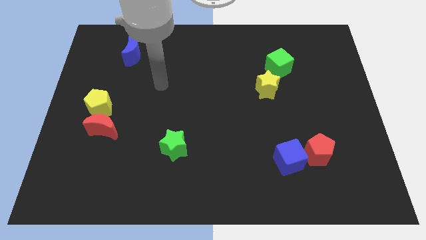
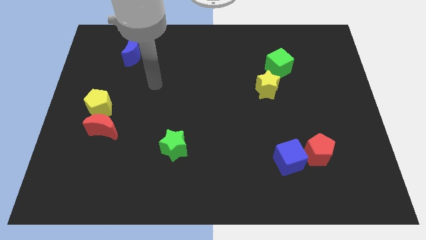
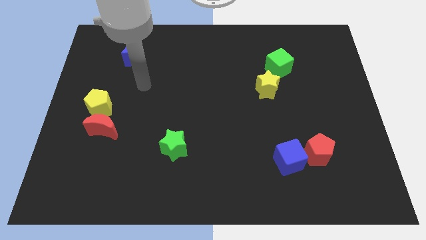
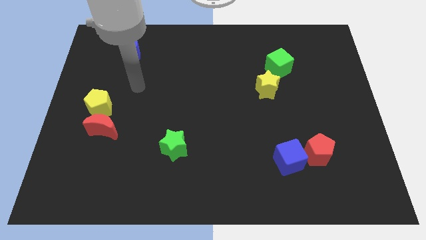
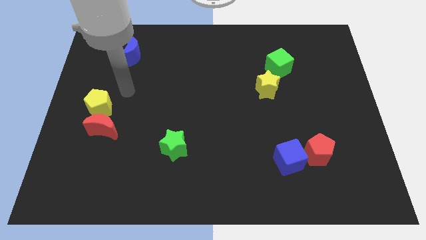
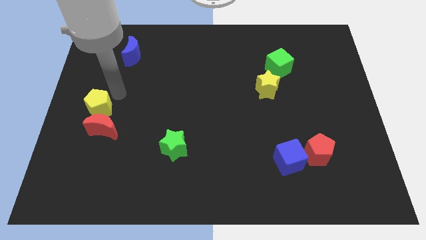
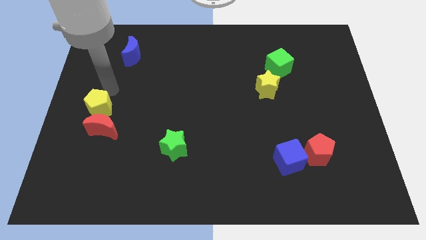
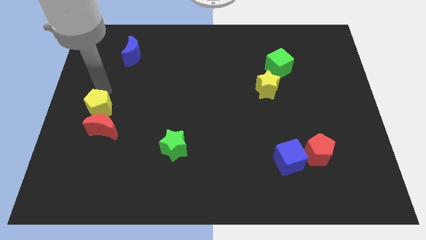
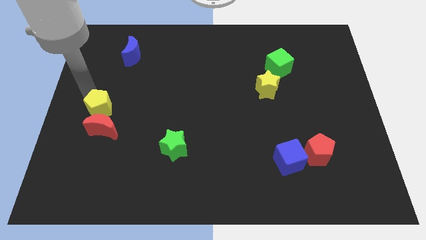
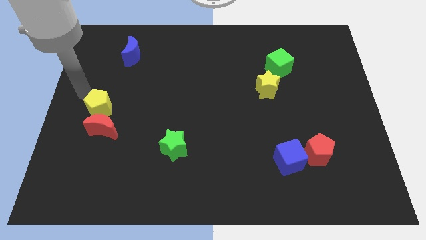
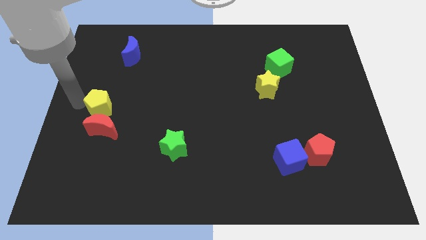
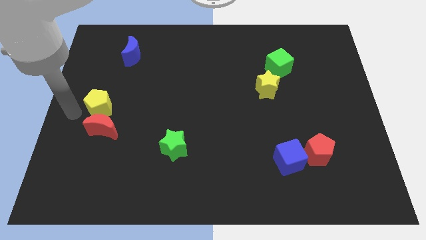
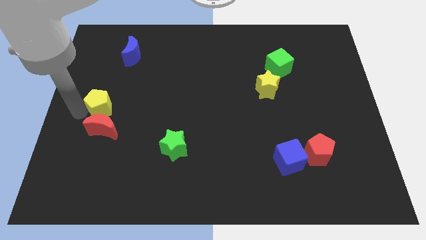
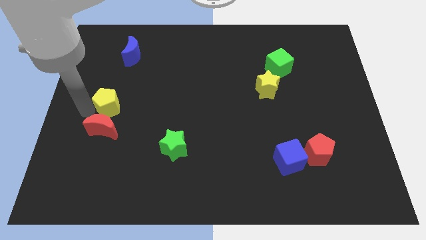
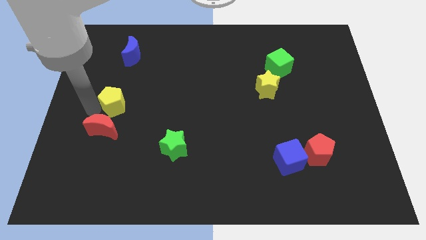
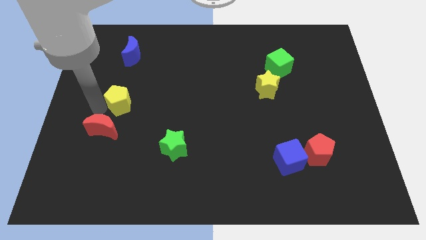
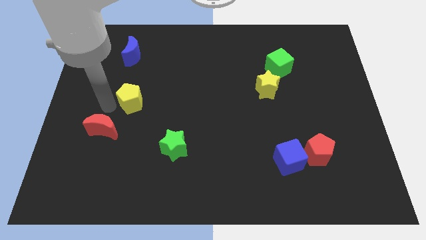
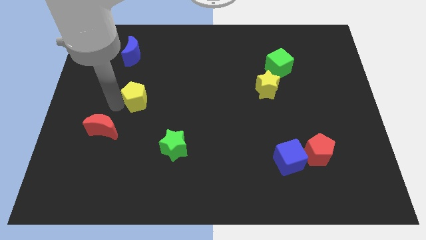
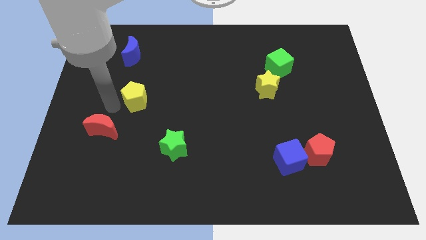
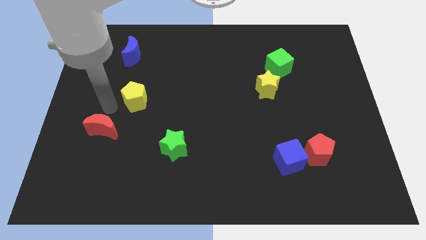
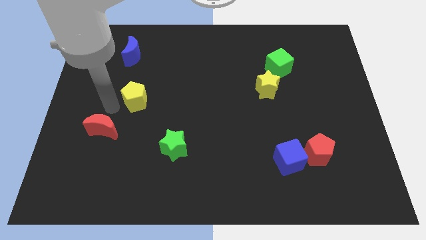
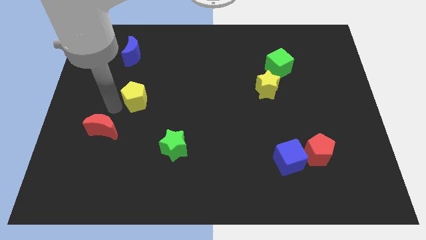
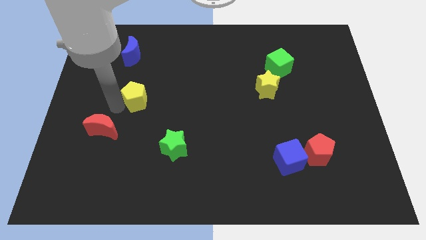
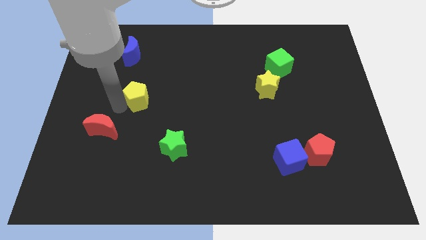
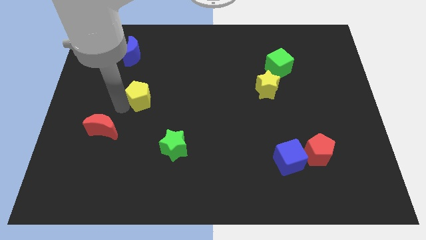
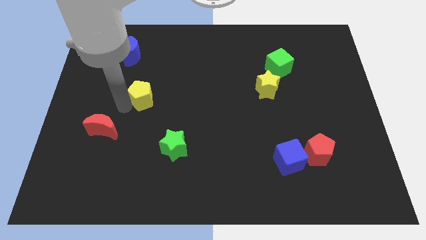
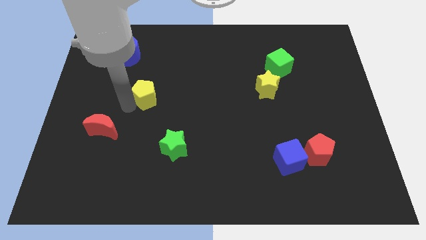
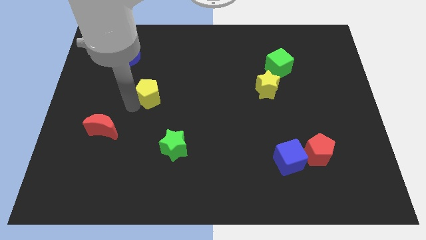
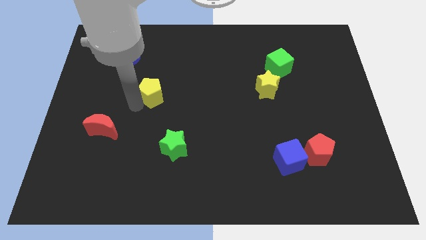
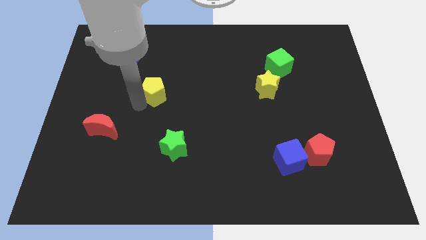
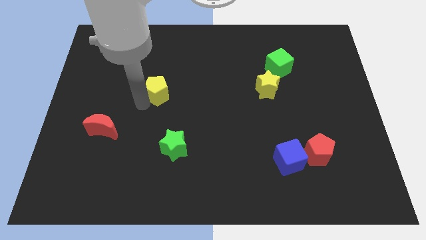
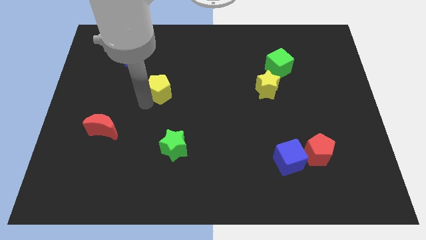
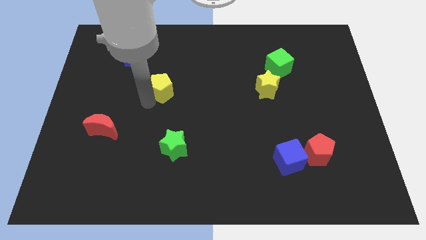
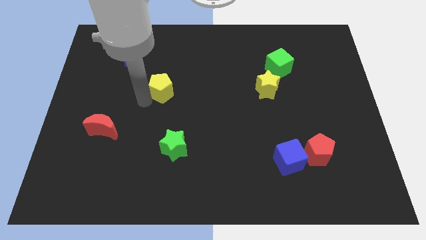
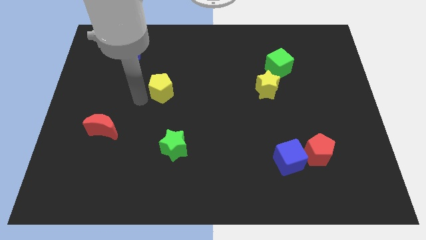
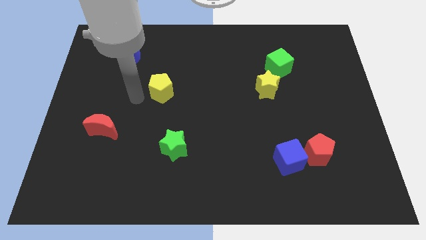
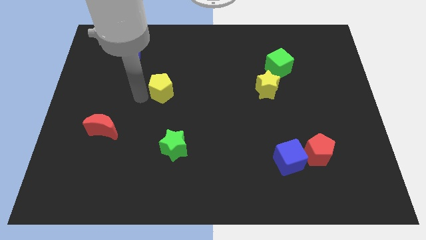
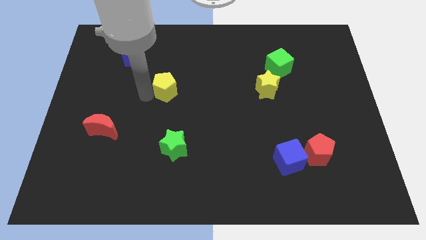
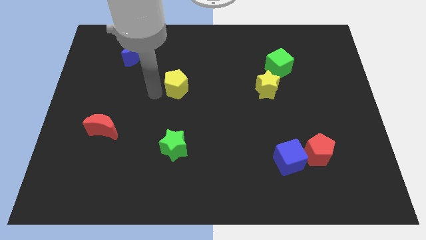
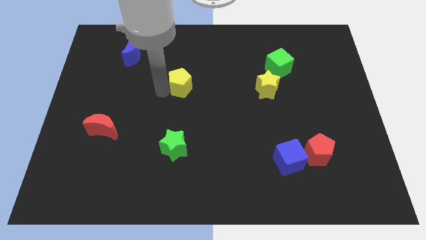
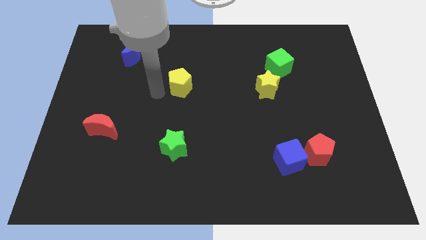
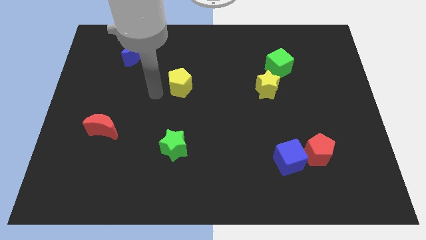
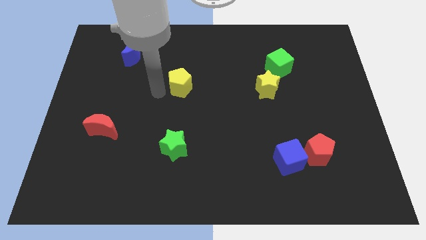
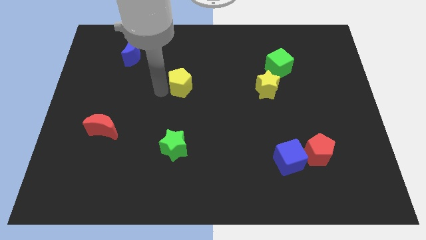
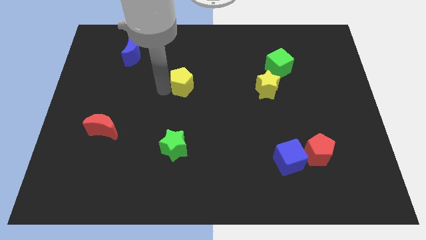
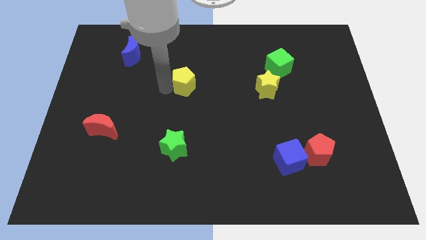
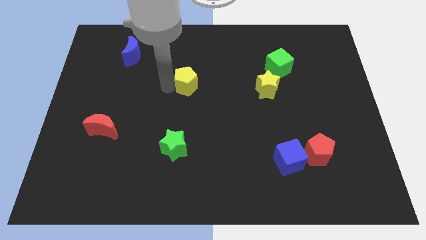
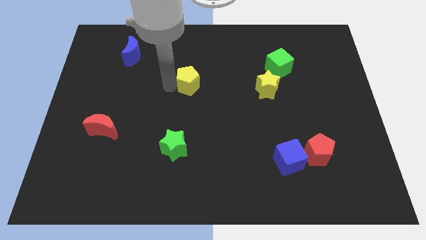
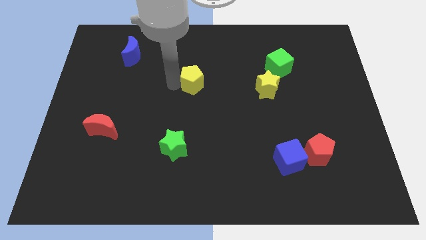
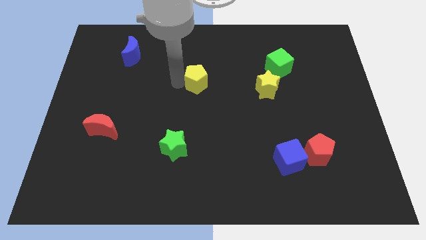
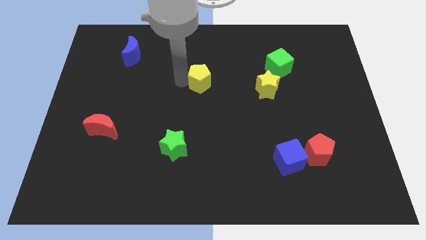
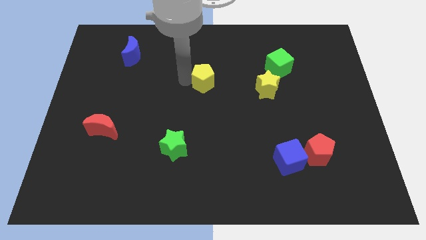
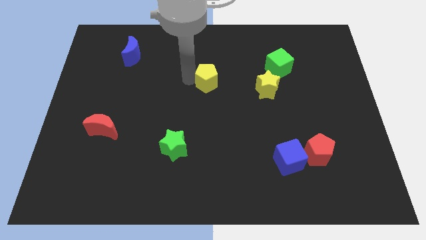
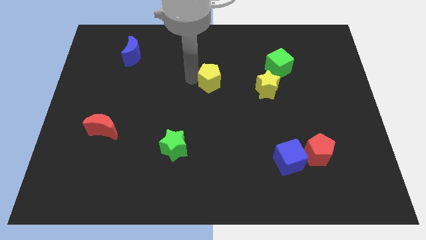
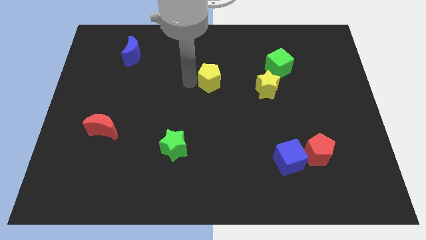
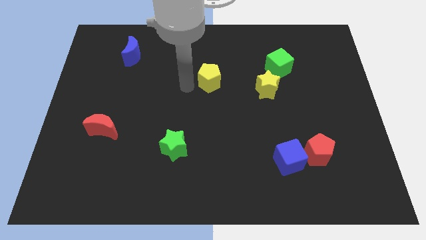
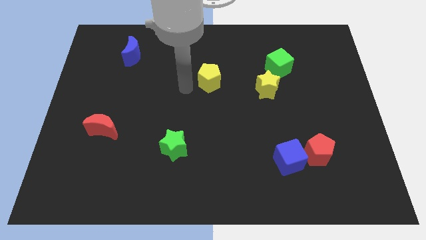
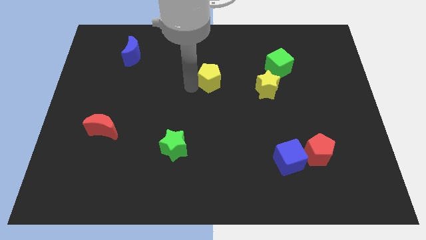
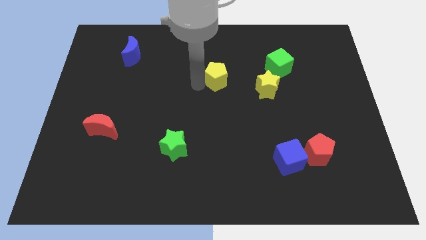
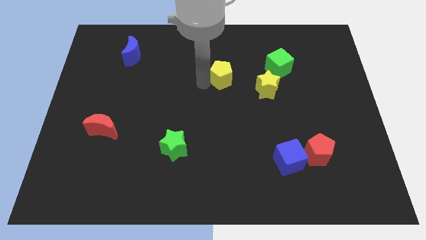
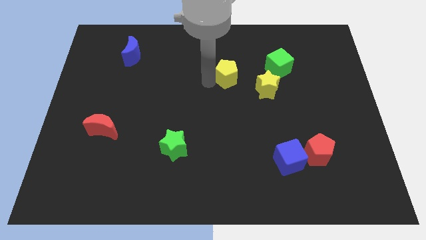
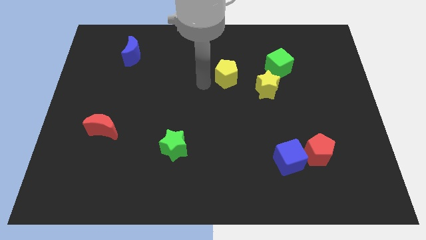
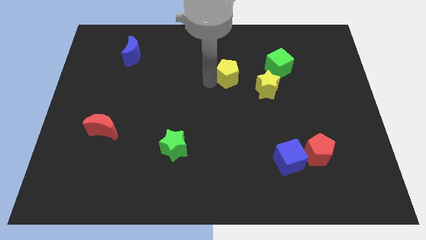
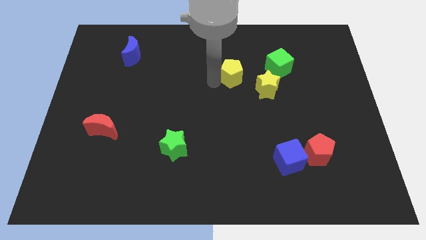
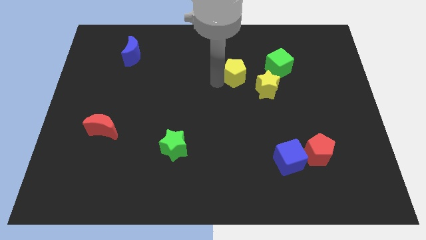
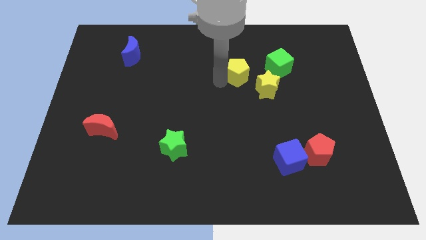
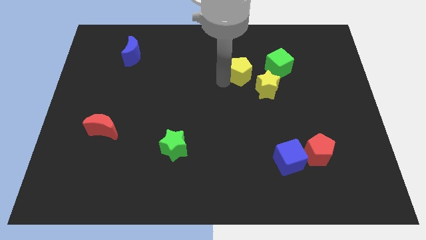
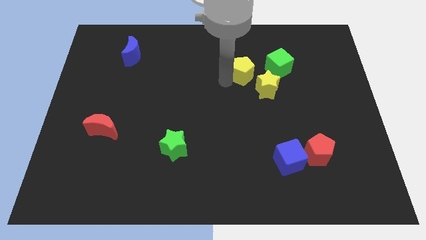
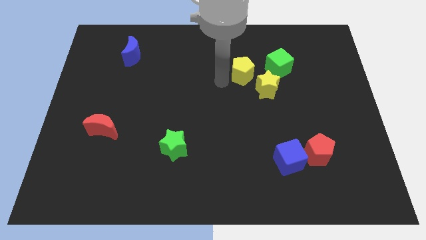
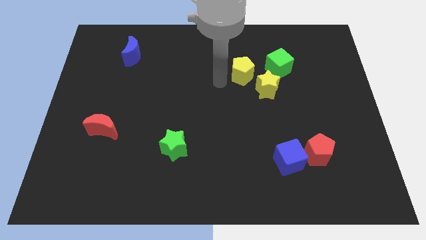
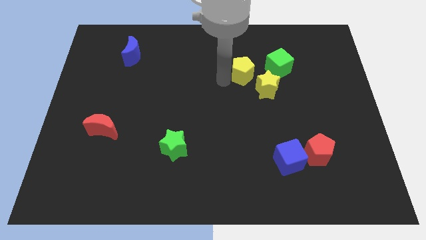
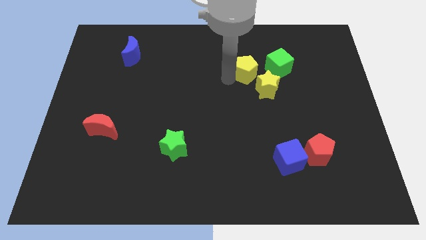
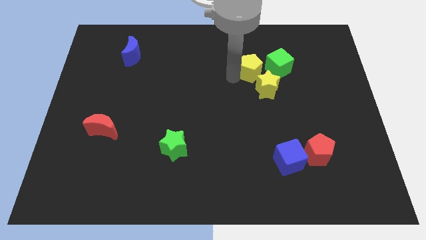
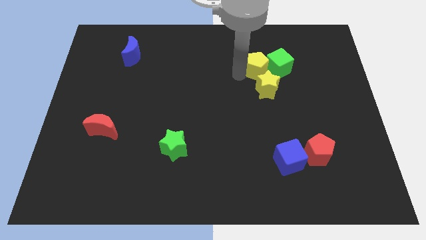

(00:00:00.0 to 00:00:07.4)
move the yellow pentagon towards the green cube
